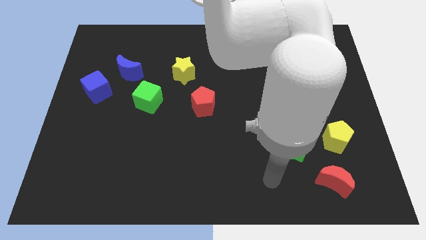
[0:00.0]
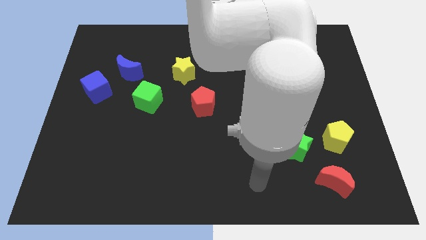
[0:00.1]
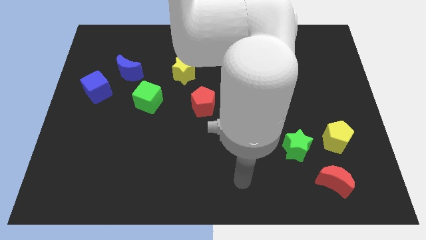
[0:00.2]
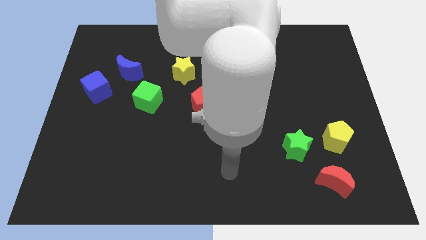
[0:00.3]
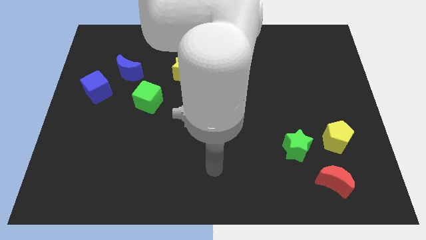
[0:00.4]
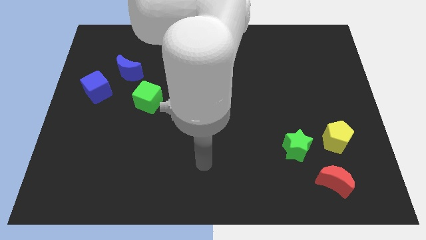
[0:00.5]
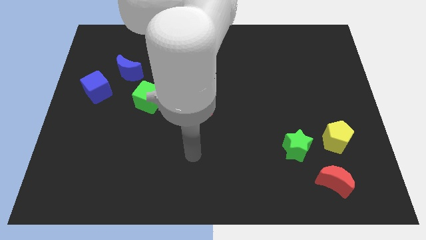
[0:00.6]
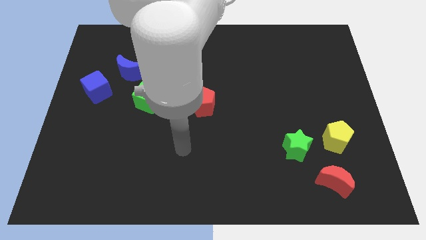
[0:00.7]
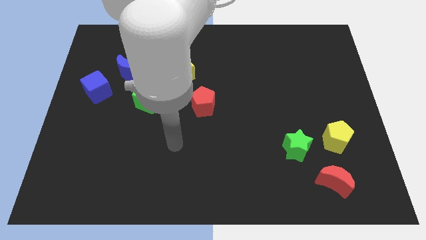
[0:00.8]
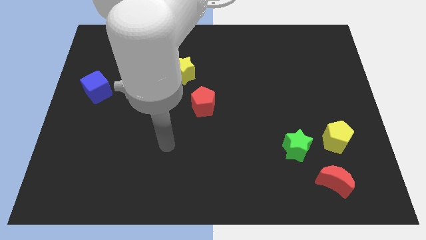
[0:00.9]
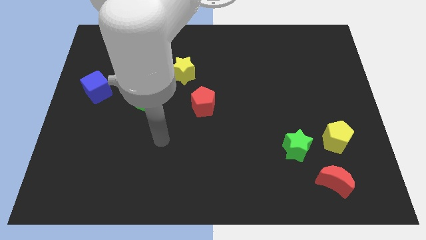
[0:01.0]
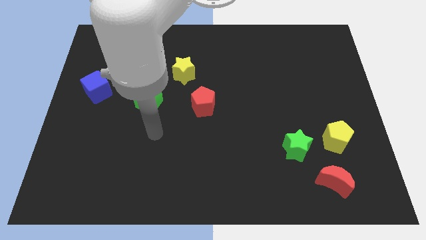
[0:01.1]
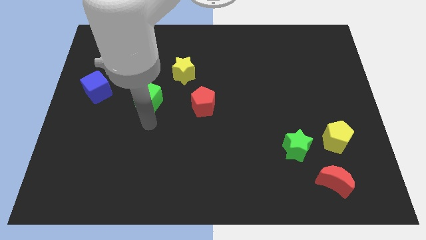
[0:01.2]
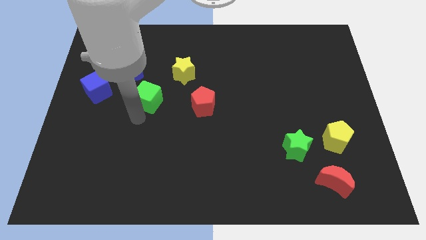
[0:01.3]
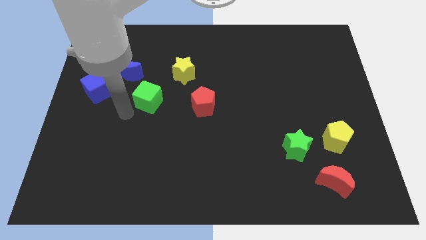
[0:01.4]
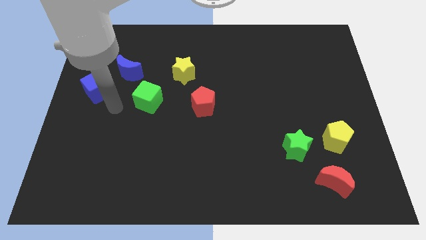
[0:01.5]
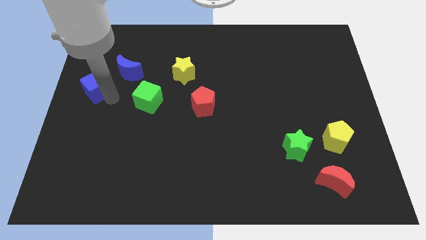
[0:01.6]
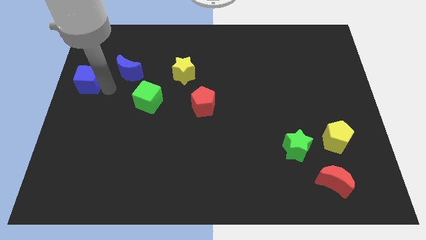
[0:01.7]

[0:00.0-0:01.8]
move the blue moon away from the blue cube

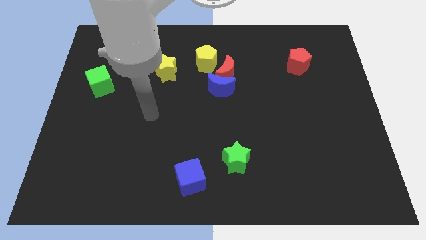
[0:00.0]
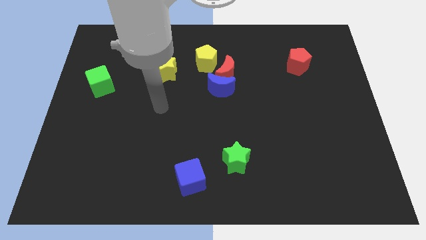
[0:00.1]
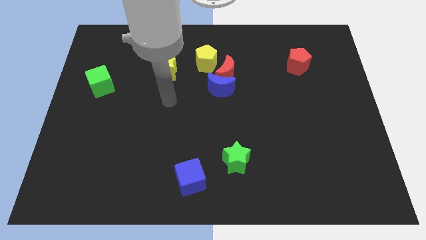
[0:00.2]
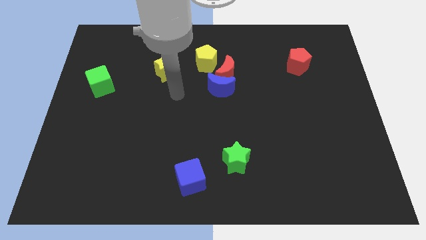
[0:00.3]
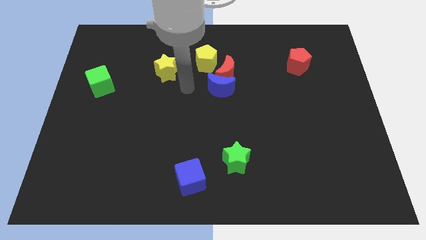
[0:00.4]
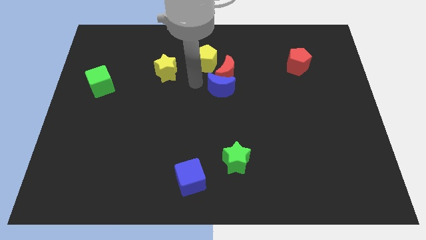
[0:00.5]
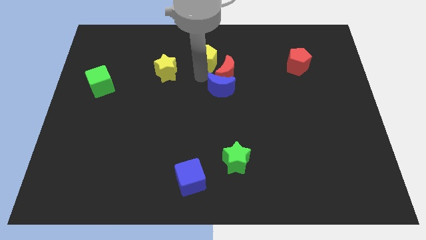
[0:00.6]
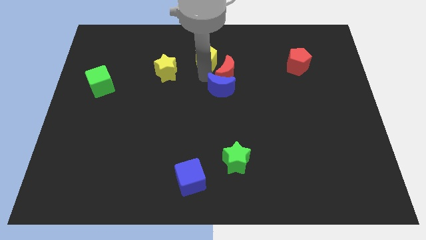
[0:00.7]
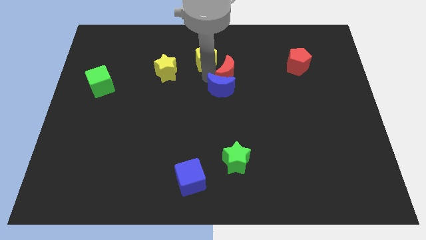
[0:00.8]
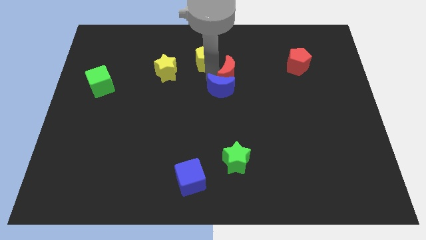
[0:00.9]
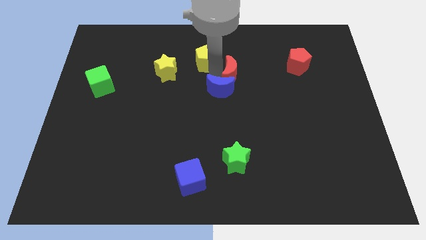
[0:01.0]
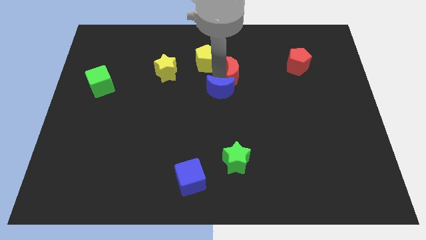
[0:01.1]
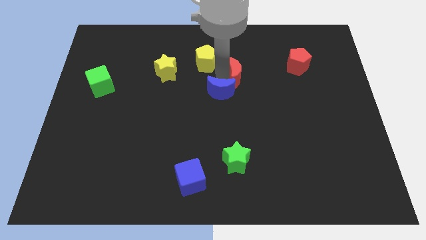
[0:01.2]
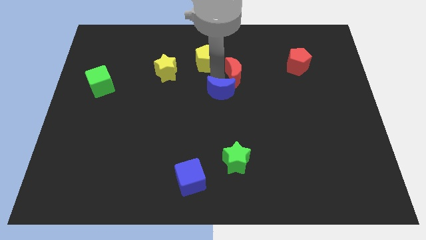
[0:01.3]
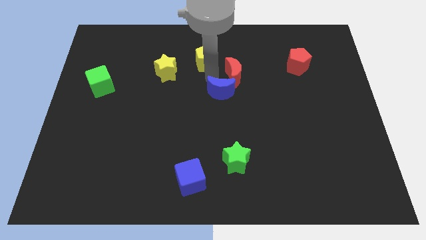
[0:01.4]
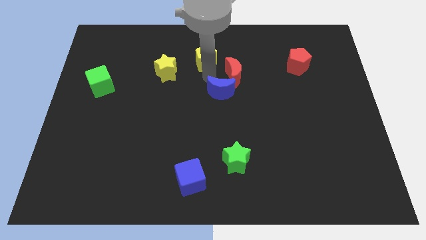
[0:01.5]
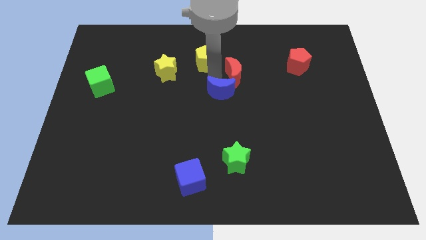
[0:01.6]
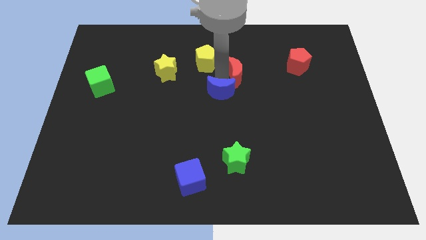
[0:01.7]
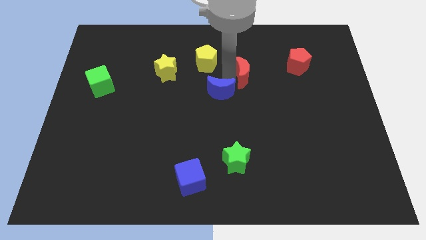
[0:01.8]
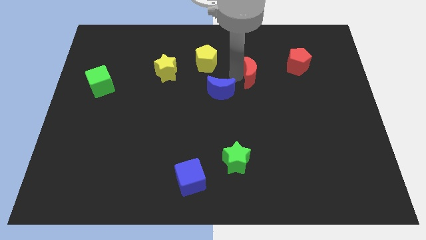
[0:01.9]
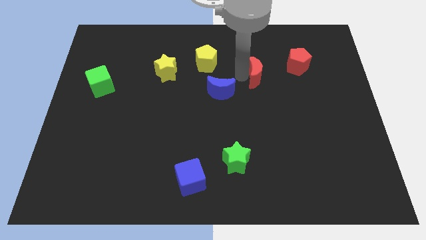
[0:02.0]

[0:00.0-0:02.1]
pull the red moon apart from the blue moon and yellow pentagon

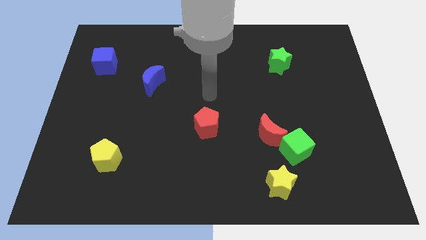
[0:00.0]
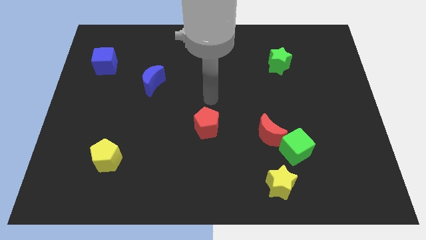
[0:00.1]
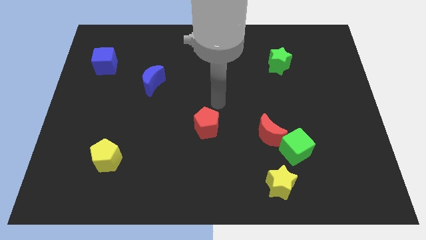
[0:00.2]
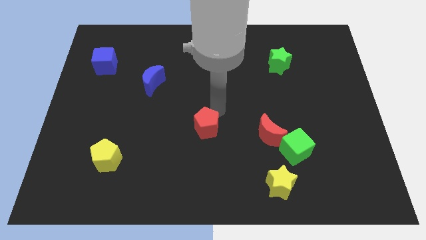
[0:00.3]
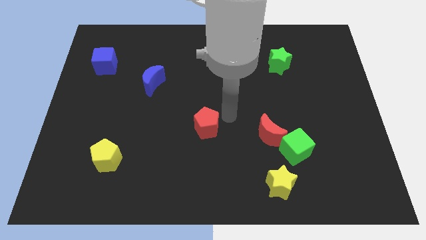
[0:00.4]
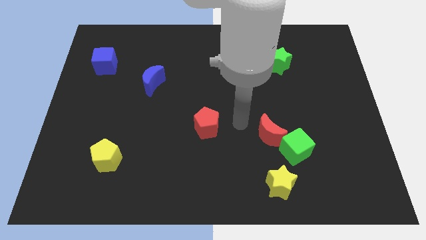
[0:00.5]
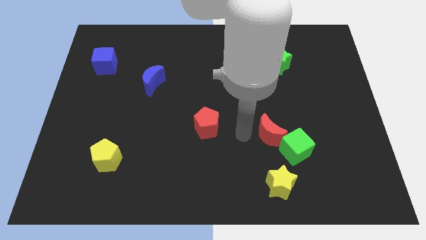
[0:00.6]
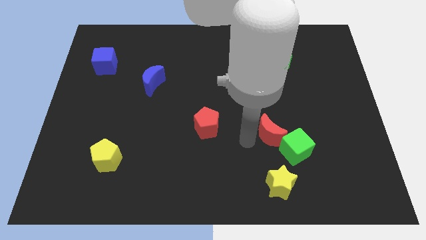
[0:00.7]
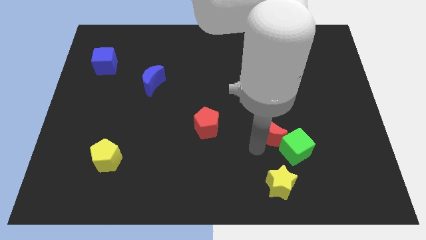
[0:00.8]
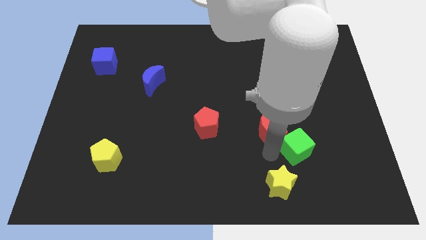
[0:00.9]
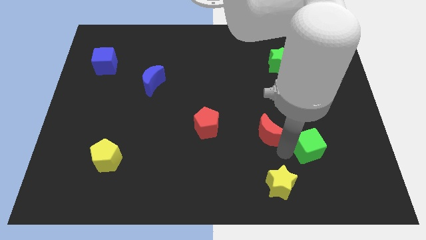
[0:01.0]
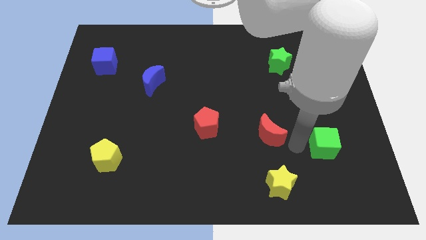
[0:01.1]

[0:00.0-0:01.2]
separate the red moon from the green cube

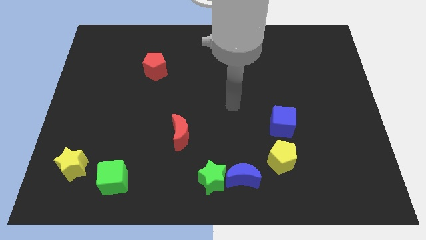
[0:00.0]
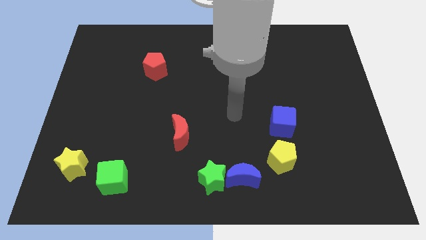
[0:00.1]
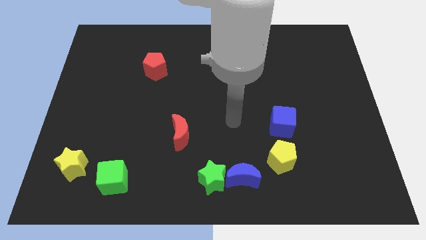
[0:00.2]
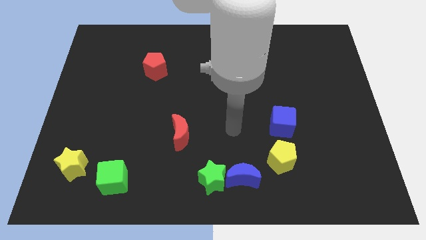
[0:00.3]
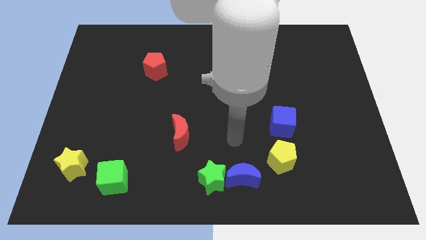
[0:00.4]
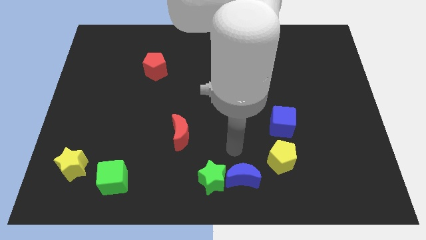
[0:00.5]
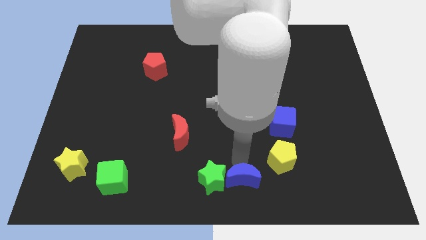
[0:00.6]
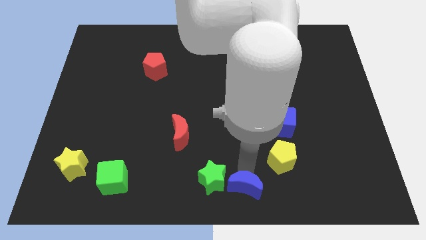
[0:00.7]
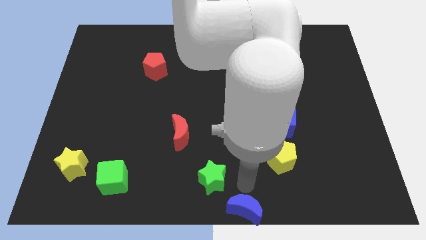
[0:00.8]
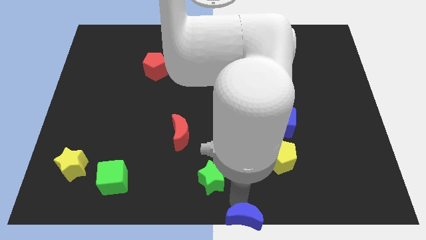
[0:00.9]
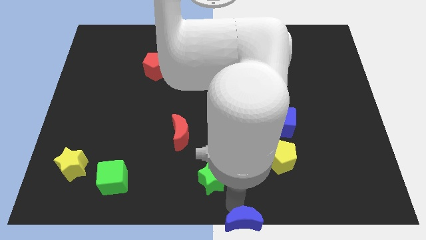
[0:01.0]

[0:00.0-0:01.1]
separate the green star from the blue moon

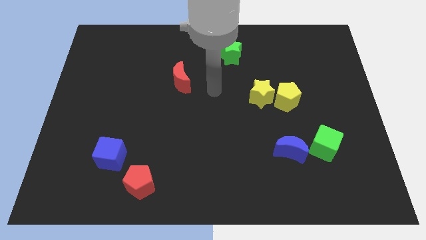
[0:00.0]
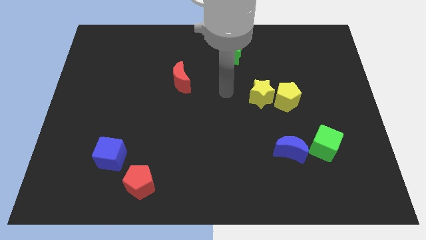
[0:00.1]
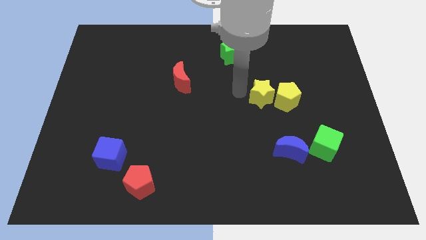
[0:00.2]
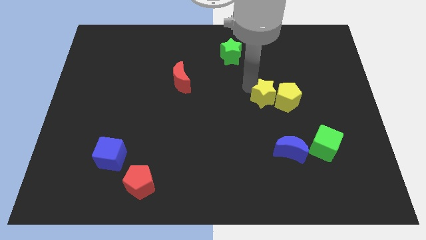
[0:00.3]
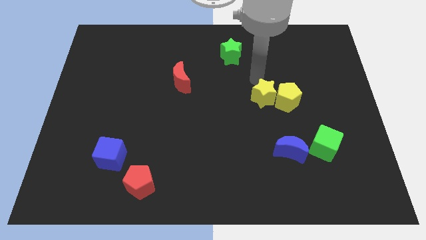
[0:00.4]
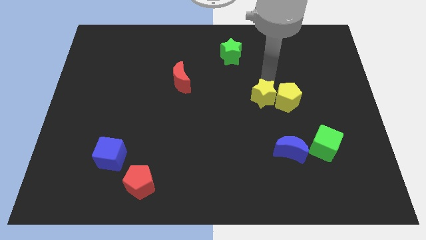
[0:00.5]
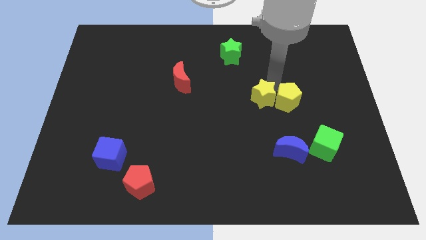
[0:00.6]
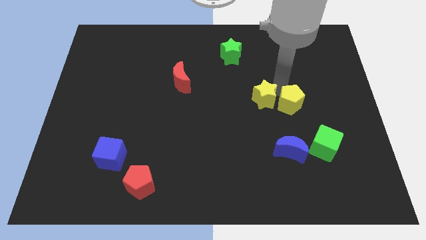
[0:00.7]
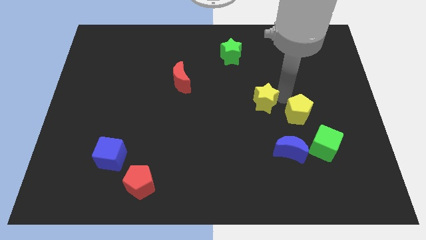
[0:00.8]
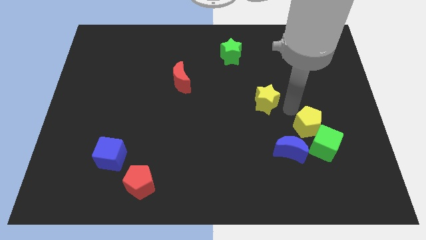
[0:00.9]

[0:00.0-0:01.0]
separate the yellow star from the yellow pentagon

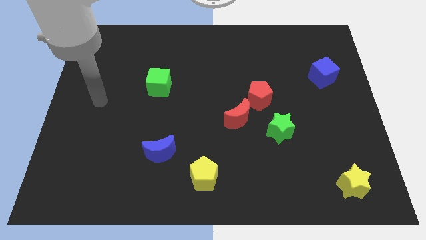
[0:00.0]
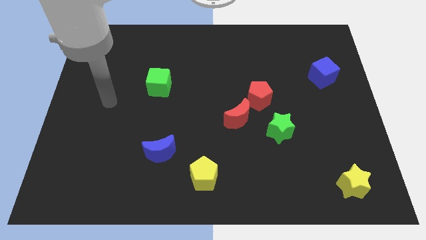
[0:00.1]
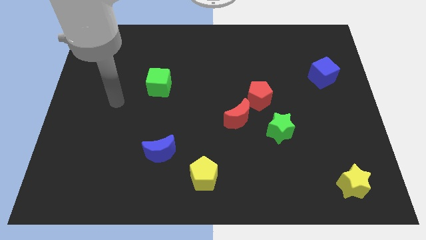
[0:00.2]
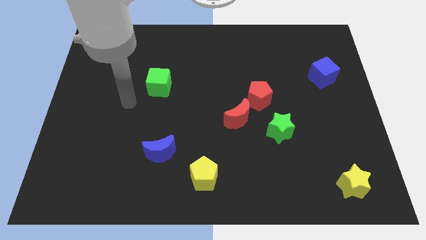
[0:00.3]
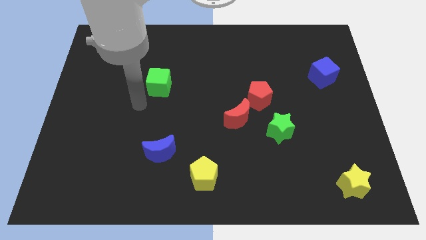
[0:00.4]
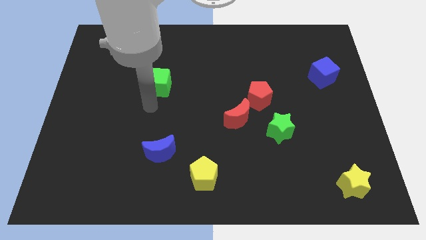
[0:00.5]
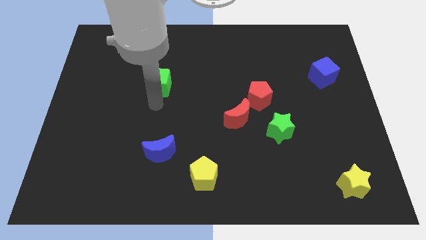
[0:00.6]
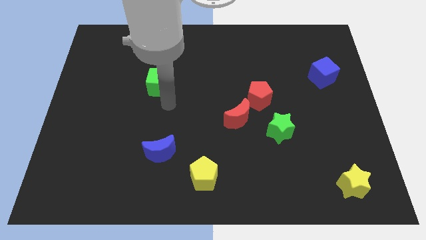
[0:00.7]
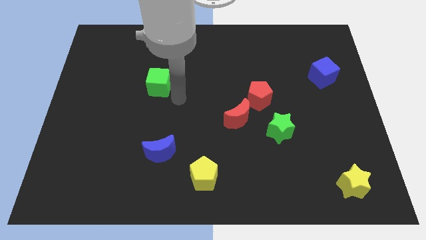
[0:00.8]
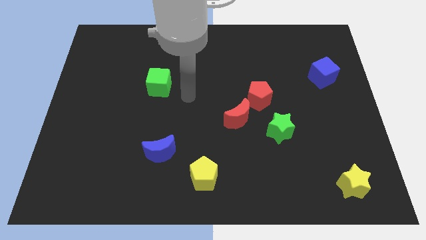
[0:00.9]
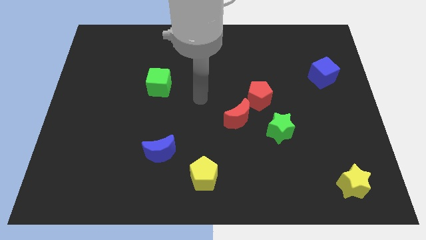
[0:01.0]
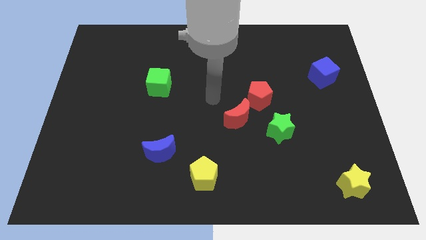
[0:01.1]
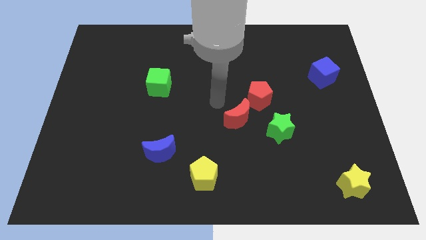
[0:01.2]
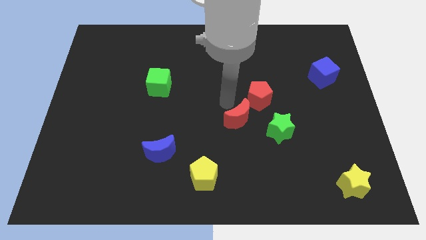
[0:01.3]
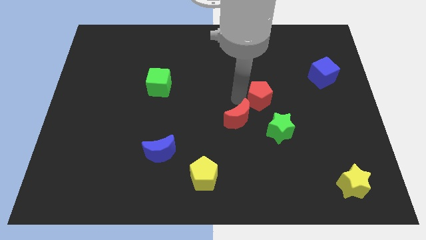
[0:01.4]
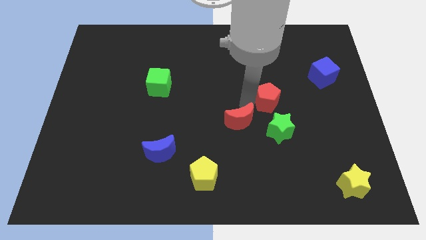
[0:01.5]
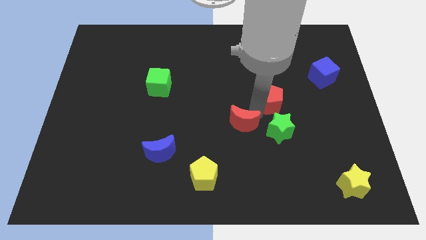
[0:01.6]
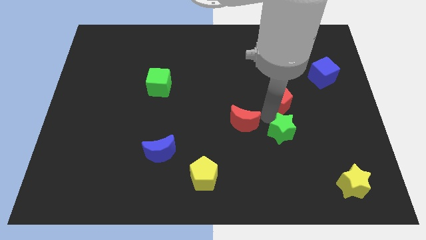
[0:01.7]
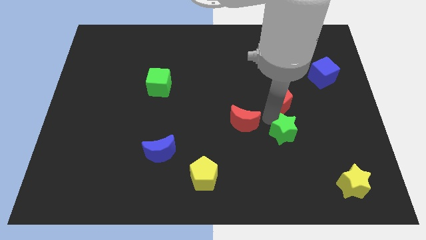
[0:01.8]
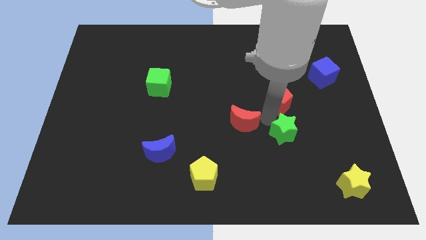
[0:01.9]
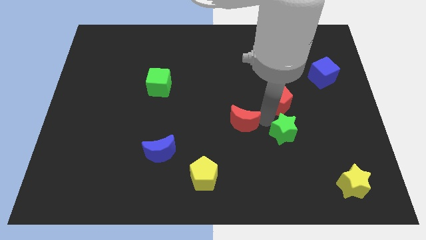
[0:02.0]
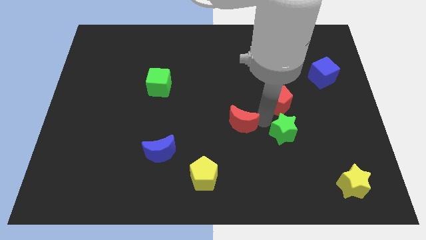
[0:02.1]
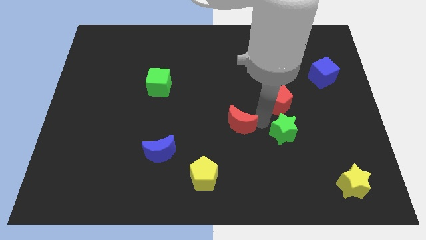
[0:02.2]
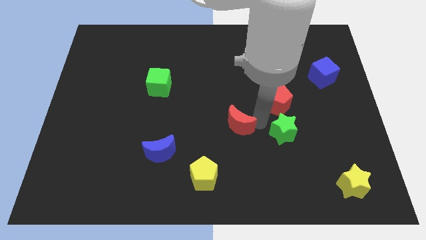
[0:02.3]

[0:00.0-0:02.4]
move the red moon away from the red pentagon and green star
